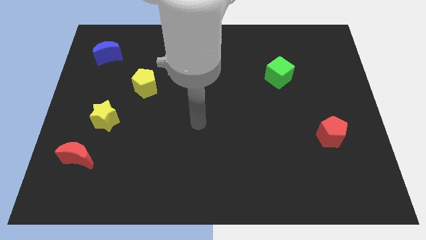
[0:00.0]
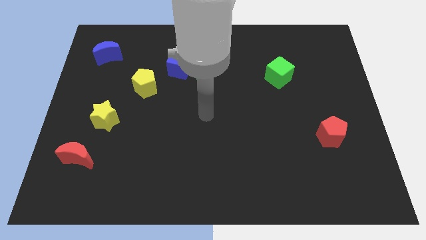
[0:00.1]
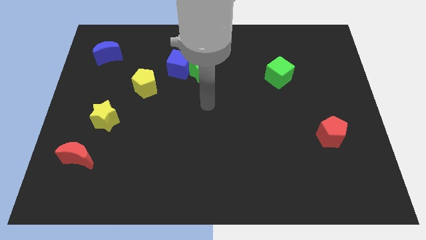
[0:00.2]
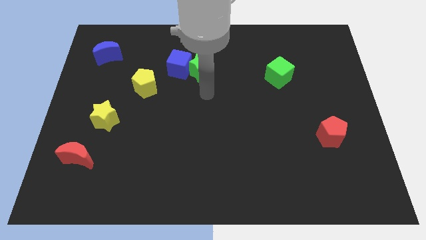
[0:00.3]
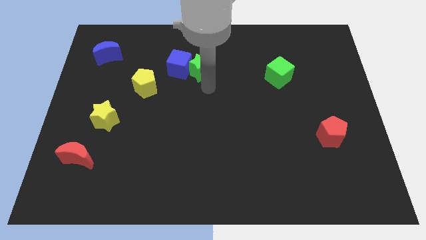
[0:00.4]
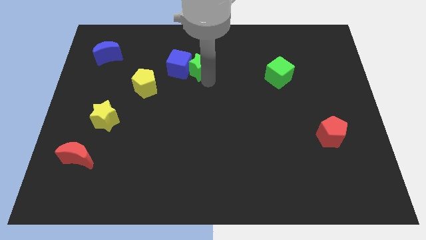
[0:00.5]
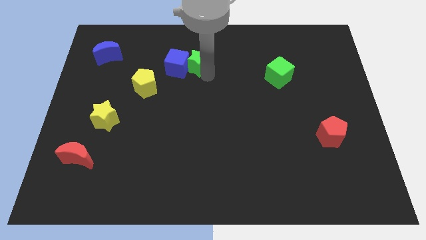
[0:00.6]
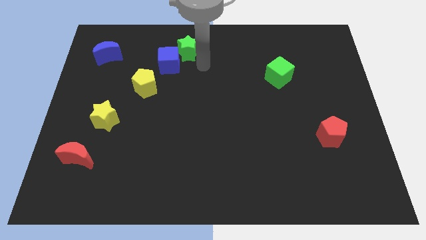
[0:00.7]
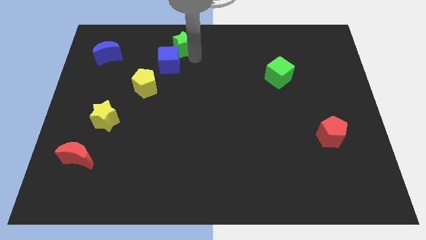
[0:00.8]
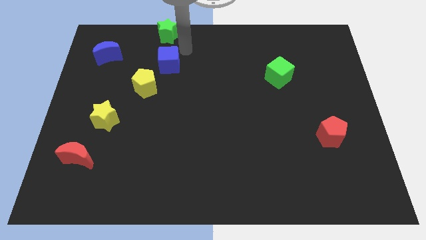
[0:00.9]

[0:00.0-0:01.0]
separate the blue cube from the green star

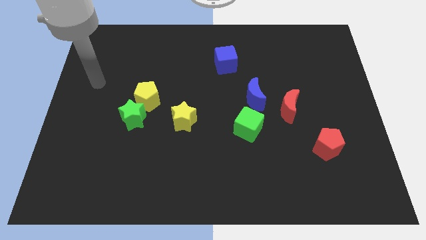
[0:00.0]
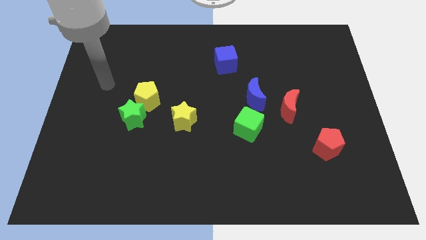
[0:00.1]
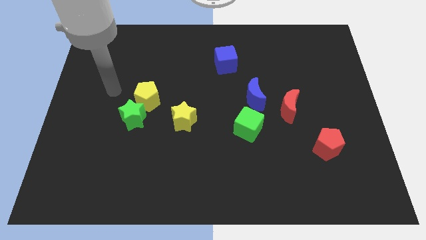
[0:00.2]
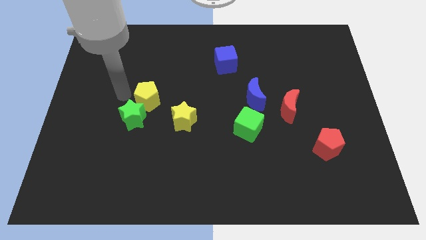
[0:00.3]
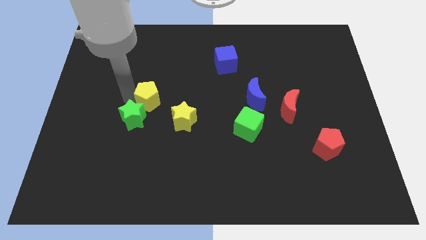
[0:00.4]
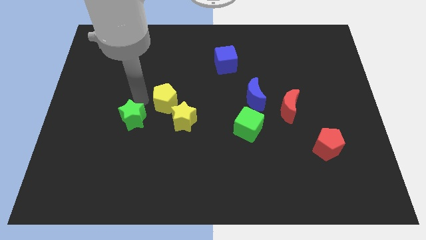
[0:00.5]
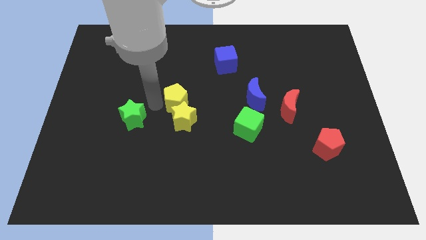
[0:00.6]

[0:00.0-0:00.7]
separate the green star from the yellow pentagon

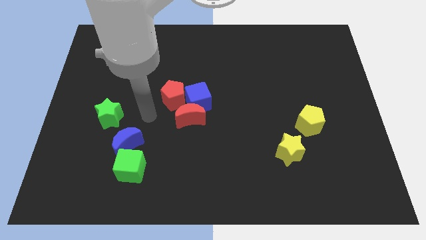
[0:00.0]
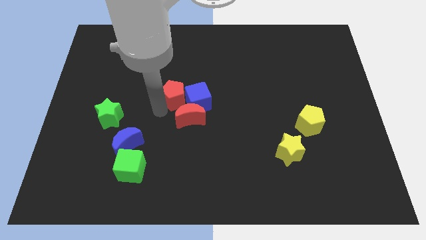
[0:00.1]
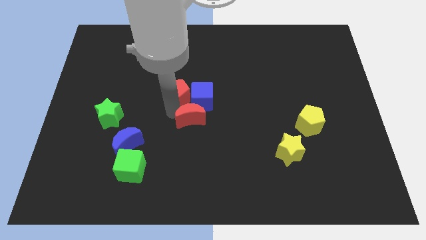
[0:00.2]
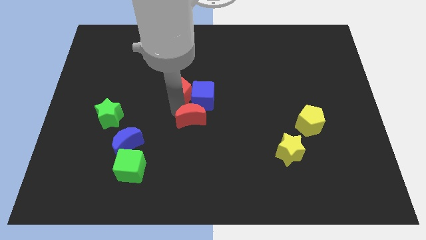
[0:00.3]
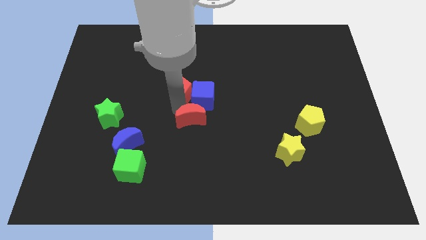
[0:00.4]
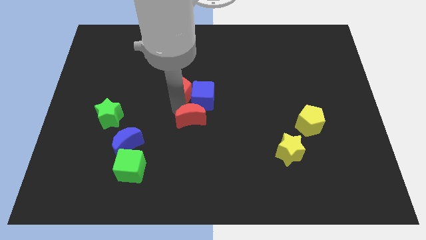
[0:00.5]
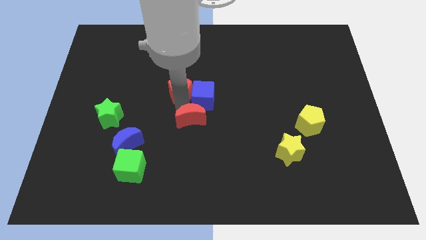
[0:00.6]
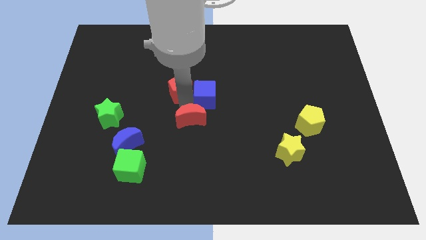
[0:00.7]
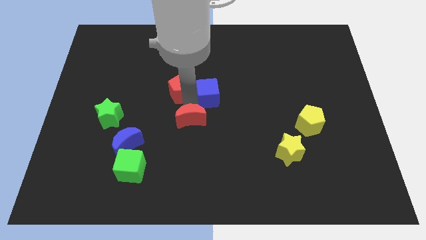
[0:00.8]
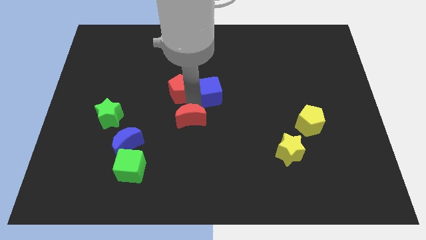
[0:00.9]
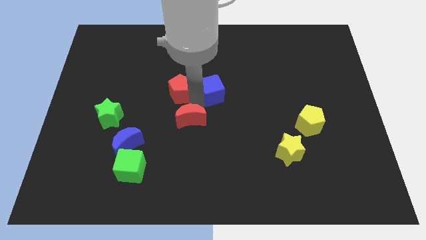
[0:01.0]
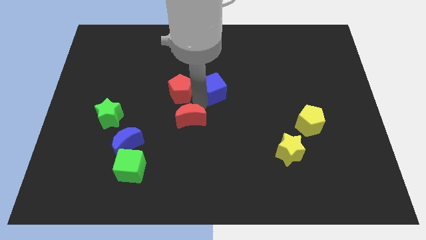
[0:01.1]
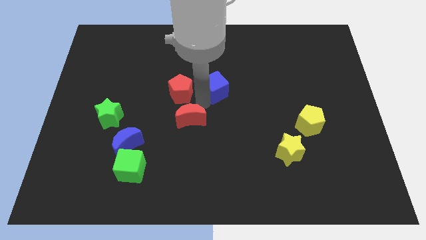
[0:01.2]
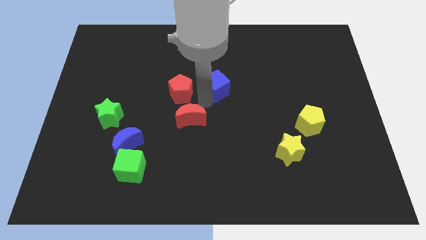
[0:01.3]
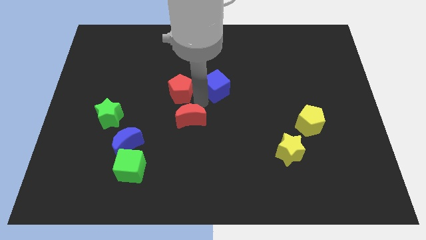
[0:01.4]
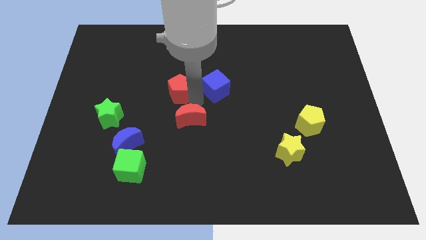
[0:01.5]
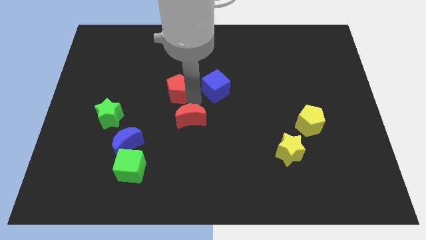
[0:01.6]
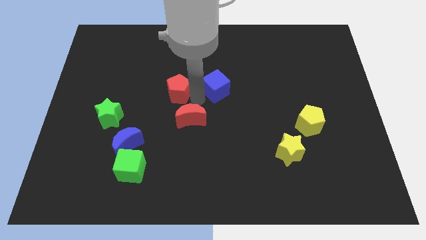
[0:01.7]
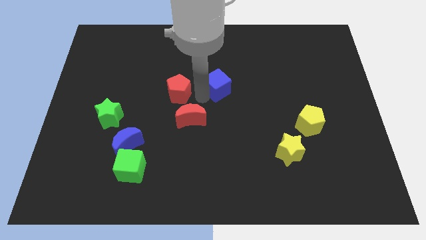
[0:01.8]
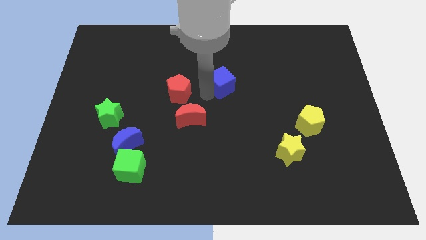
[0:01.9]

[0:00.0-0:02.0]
separate the blue cube from the red moon and red pentagon

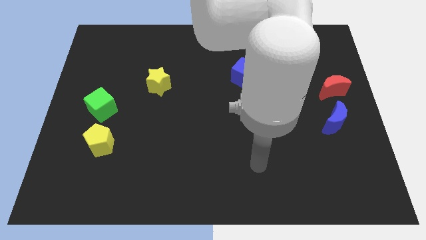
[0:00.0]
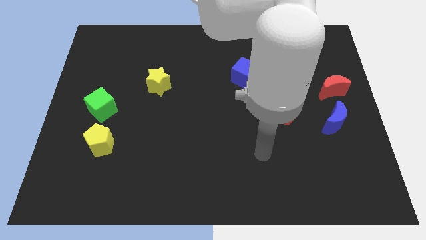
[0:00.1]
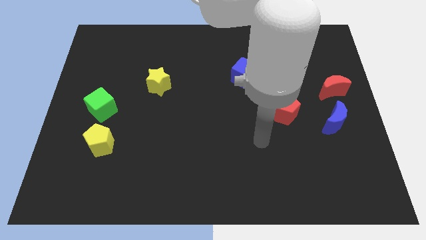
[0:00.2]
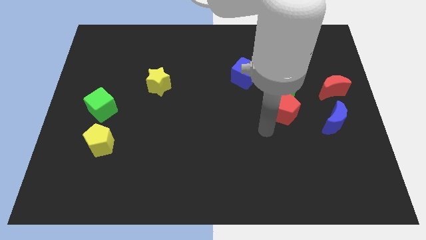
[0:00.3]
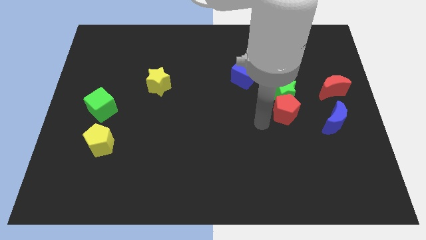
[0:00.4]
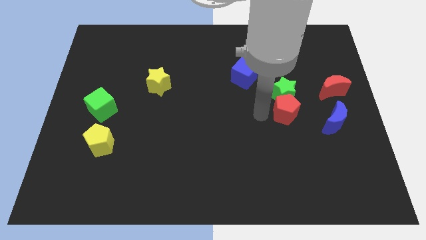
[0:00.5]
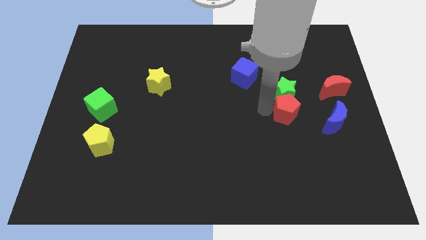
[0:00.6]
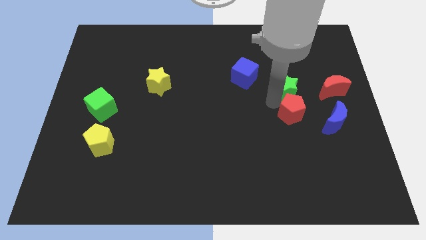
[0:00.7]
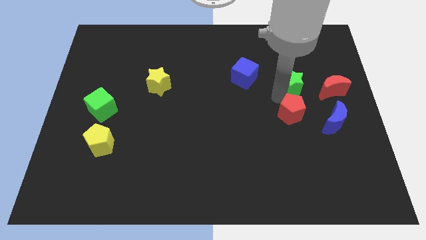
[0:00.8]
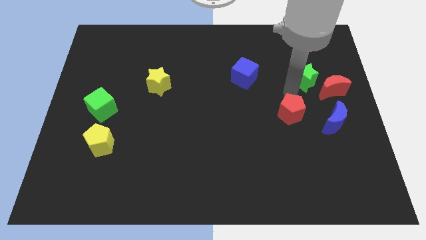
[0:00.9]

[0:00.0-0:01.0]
separate the red pentagon from the green star

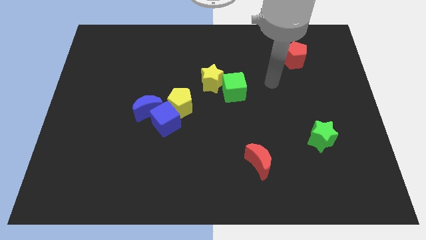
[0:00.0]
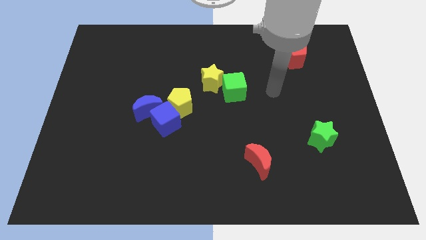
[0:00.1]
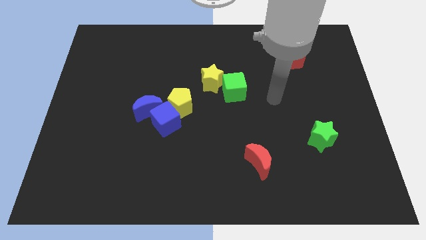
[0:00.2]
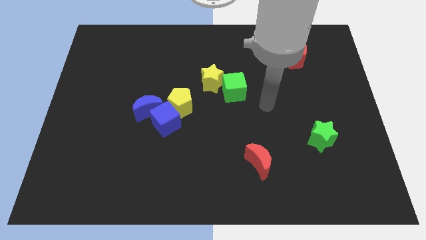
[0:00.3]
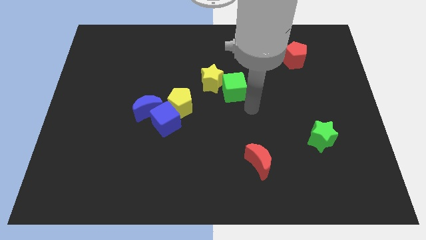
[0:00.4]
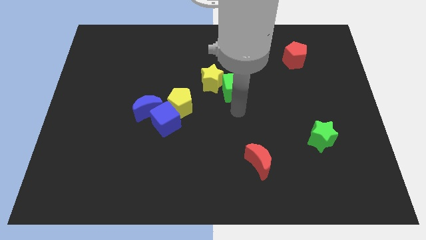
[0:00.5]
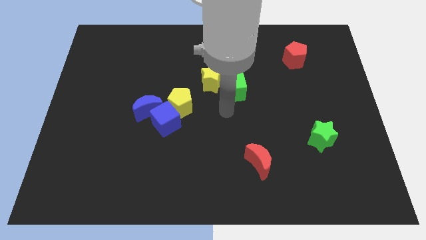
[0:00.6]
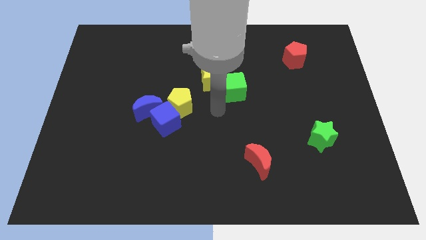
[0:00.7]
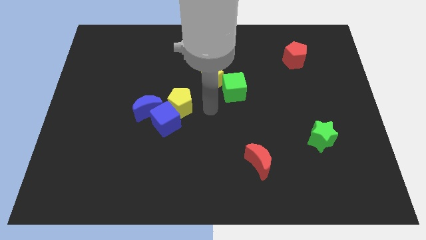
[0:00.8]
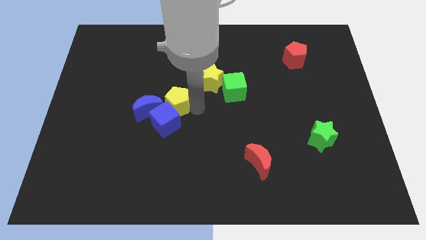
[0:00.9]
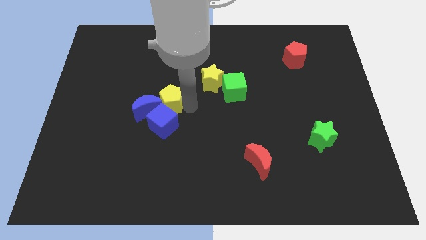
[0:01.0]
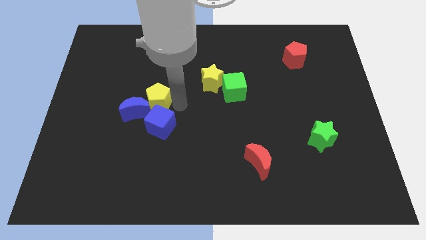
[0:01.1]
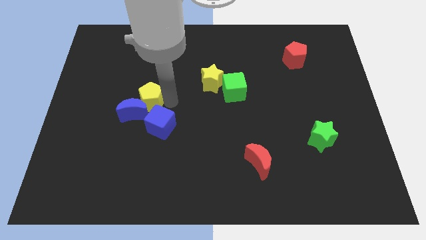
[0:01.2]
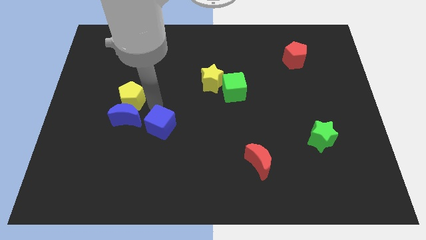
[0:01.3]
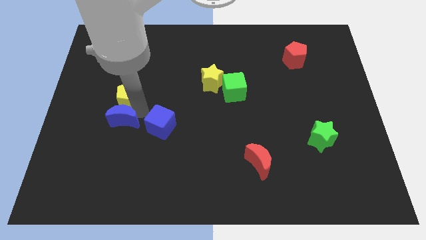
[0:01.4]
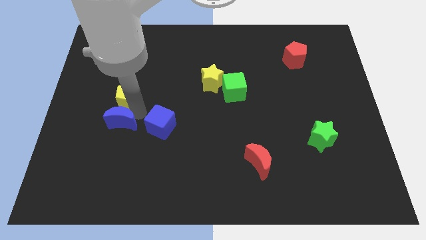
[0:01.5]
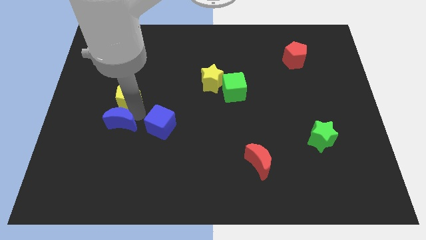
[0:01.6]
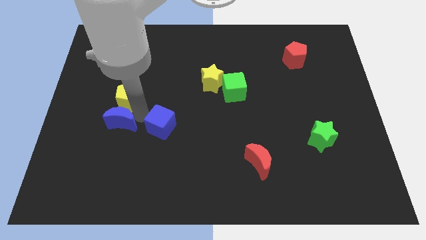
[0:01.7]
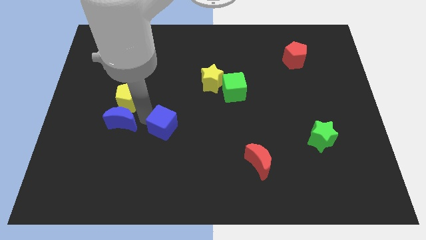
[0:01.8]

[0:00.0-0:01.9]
pull the blue cube apart from the blue moon and yellow pentagon

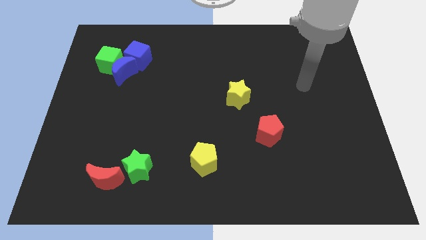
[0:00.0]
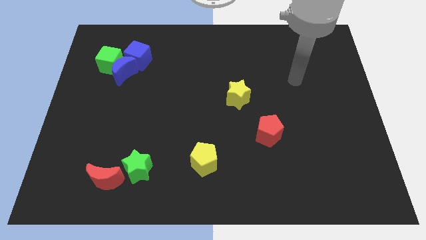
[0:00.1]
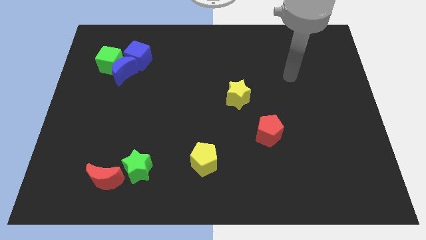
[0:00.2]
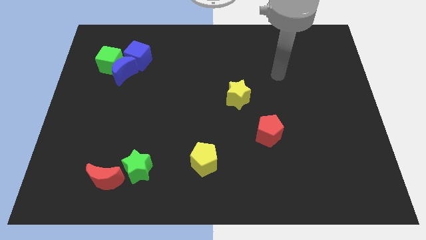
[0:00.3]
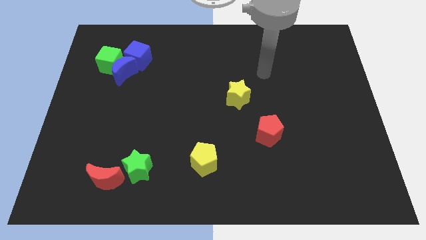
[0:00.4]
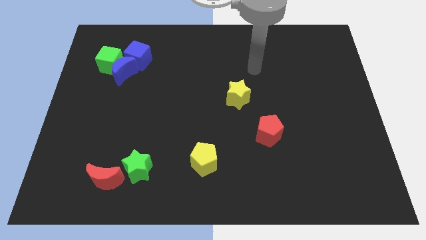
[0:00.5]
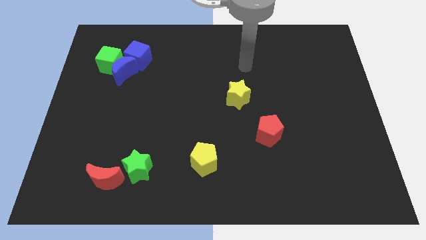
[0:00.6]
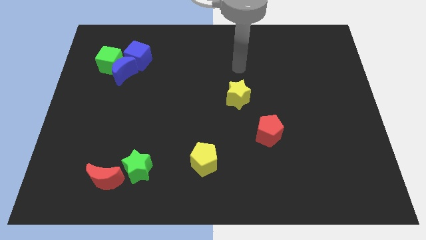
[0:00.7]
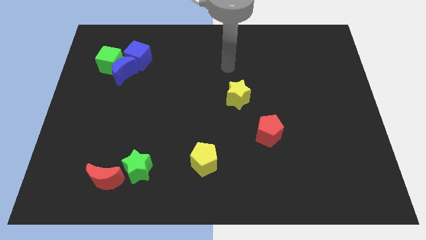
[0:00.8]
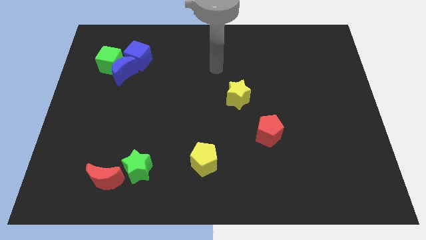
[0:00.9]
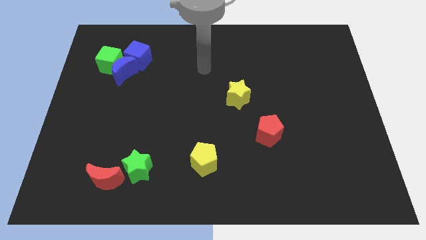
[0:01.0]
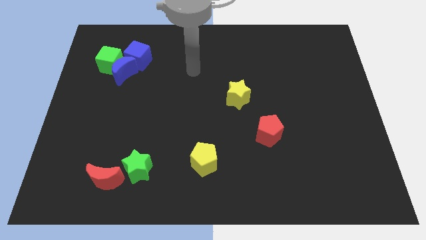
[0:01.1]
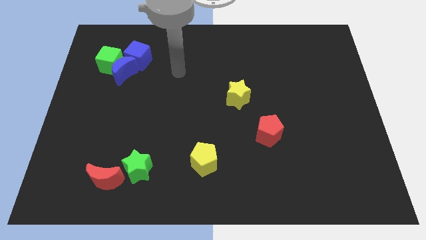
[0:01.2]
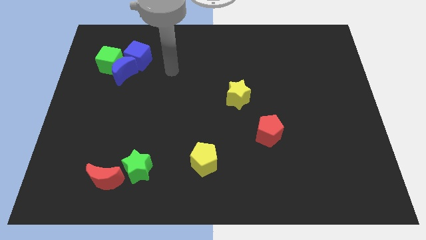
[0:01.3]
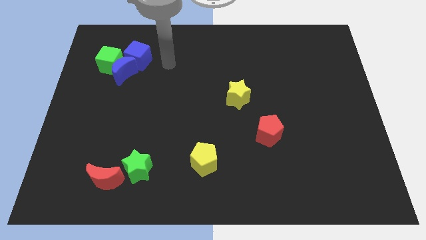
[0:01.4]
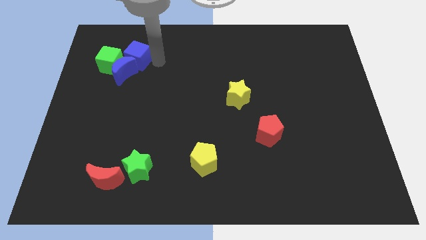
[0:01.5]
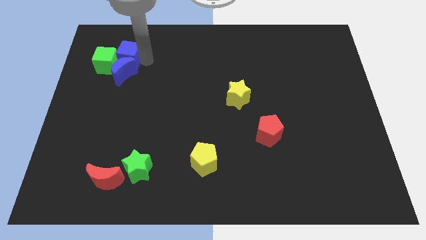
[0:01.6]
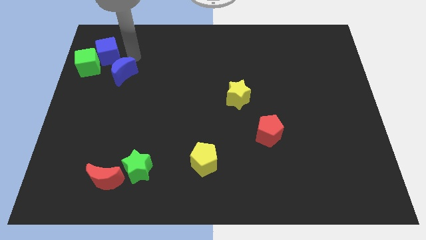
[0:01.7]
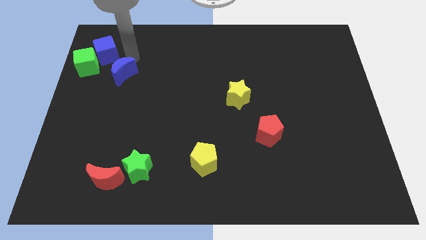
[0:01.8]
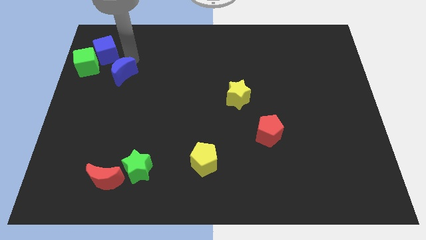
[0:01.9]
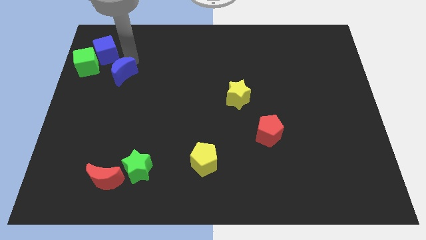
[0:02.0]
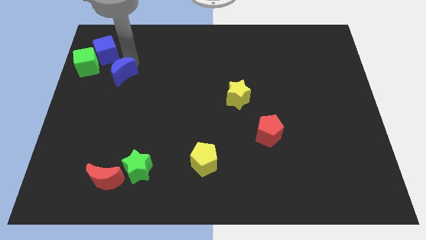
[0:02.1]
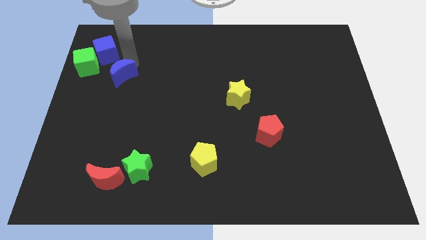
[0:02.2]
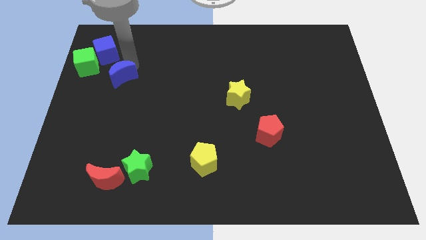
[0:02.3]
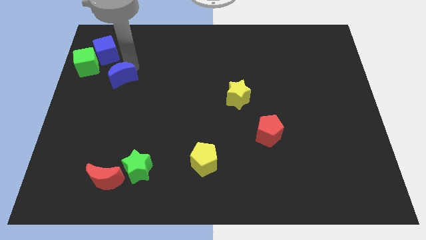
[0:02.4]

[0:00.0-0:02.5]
pull the blue moon apart from the green cube and blue cube

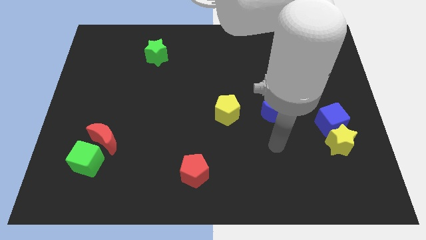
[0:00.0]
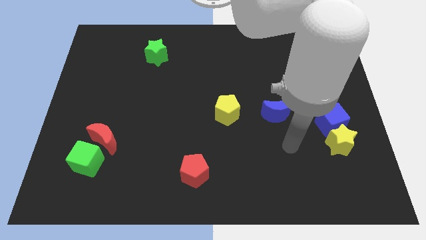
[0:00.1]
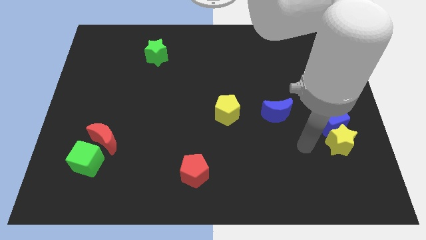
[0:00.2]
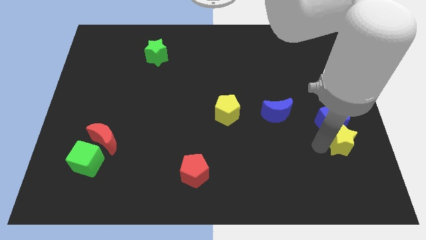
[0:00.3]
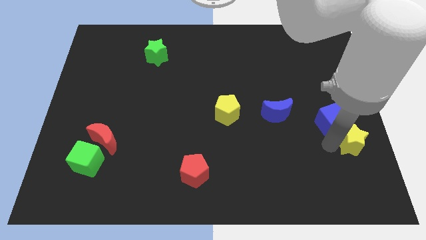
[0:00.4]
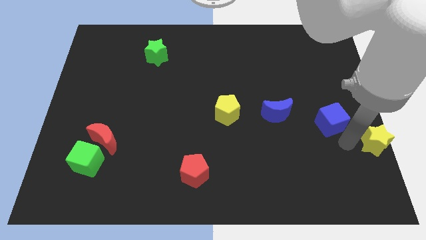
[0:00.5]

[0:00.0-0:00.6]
separate the blue cube from the yellow star
